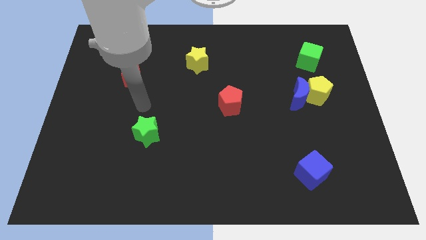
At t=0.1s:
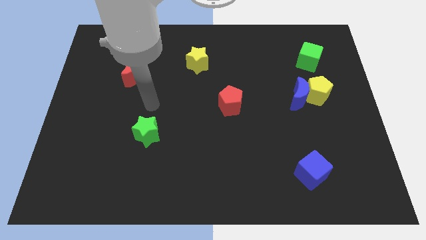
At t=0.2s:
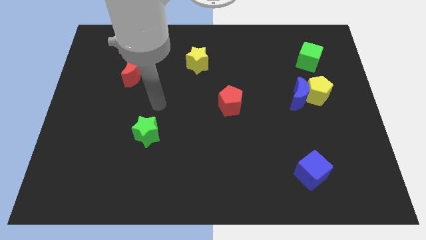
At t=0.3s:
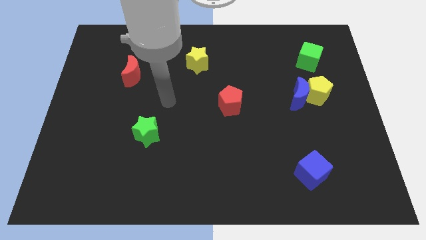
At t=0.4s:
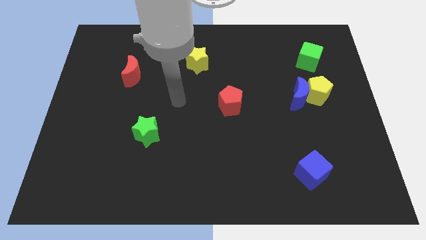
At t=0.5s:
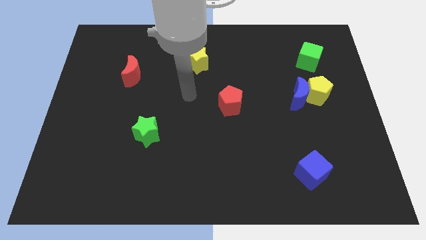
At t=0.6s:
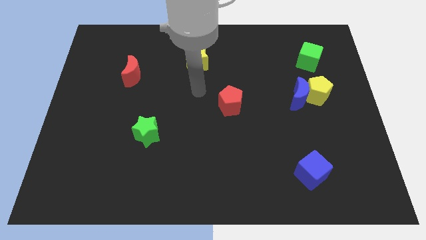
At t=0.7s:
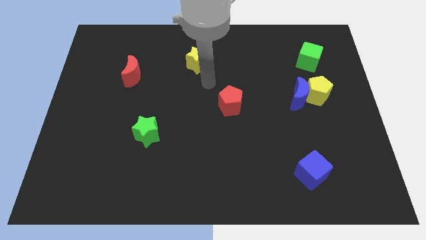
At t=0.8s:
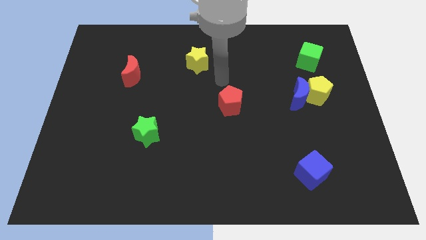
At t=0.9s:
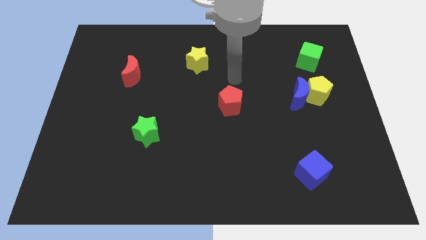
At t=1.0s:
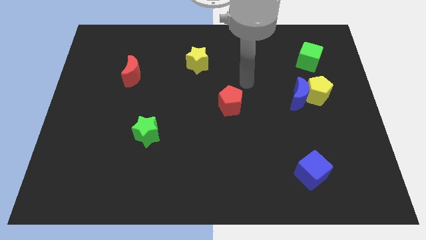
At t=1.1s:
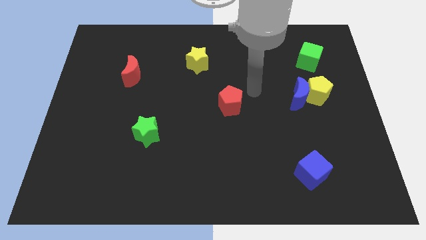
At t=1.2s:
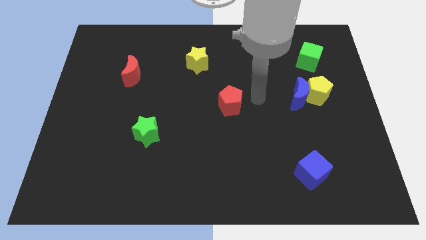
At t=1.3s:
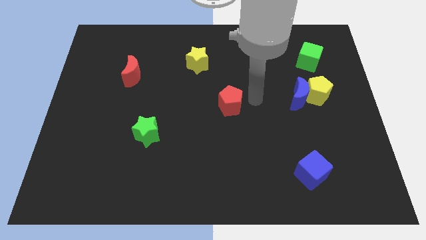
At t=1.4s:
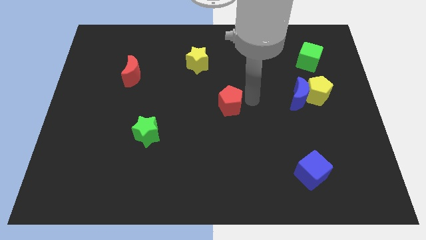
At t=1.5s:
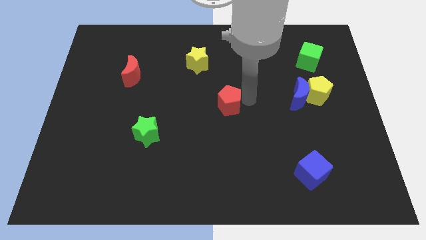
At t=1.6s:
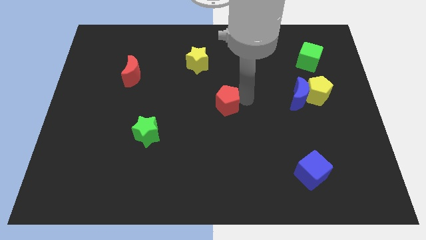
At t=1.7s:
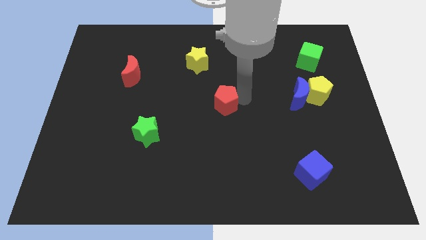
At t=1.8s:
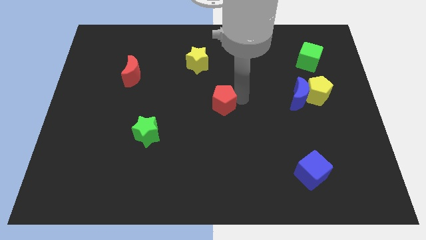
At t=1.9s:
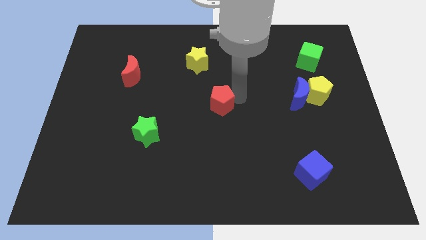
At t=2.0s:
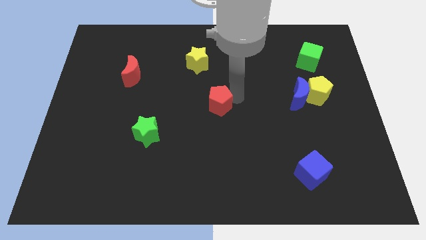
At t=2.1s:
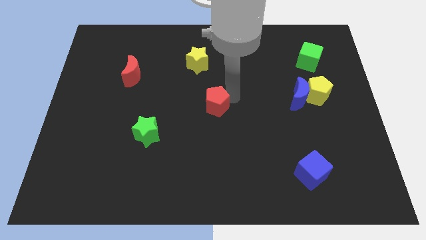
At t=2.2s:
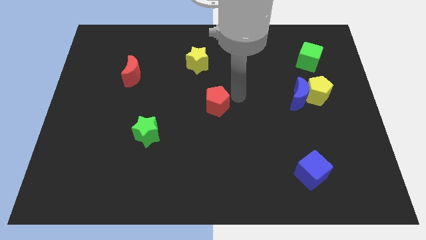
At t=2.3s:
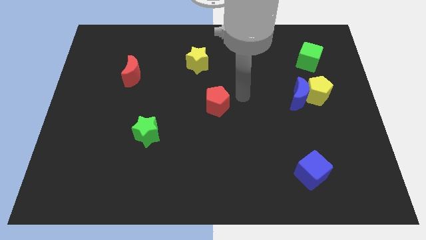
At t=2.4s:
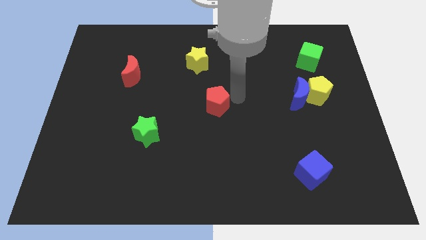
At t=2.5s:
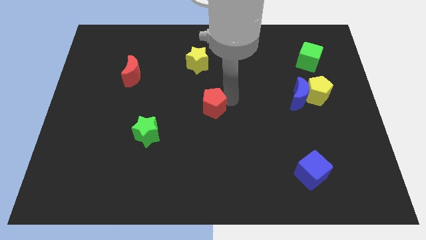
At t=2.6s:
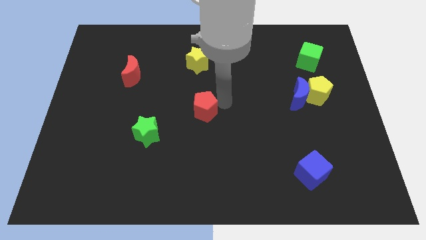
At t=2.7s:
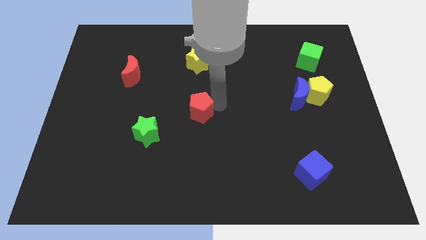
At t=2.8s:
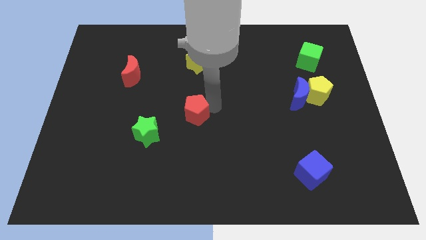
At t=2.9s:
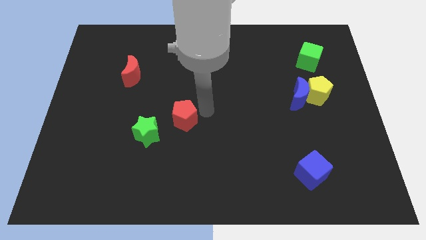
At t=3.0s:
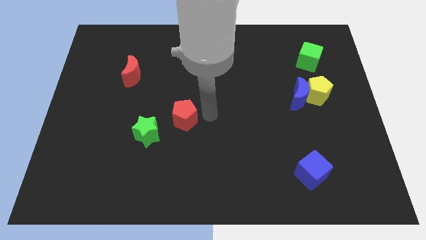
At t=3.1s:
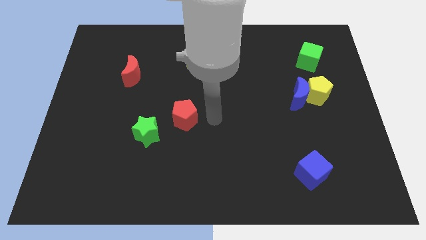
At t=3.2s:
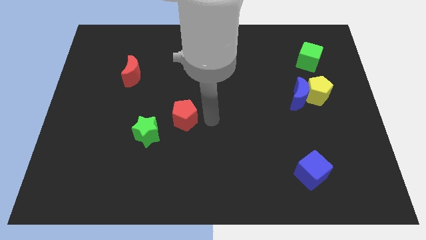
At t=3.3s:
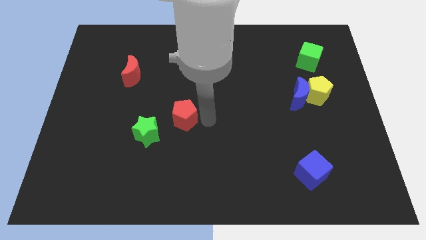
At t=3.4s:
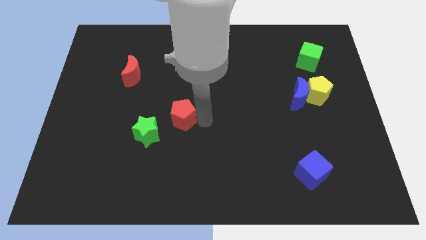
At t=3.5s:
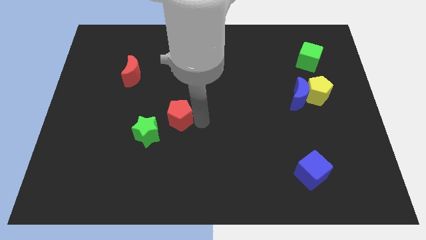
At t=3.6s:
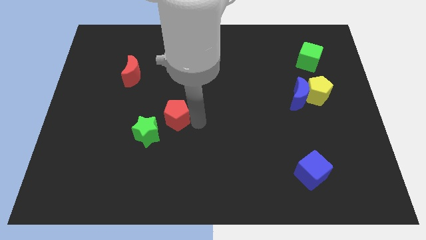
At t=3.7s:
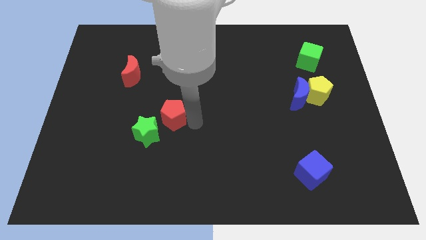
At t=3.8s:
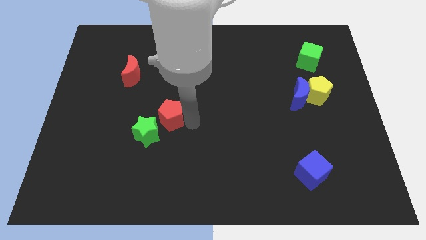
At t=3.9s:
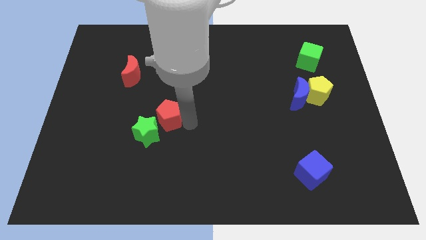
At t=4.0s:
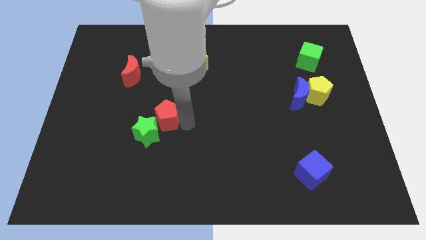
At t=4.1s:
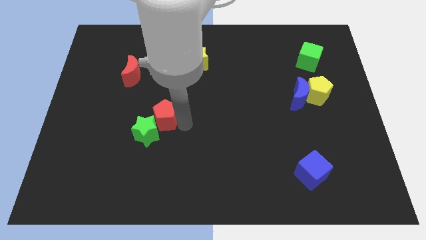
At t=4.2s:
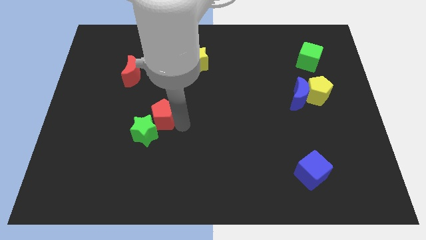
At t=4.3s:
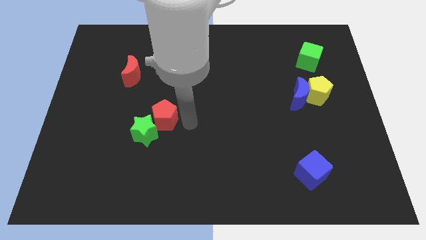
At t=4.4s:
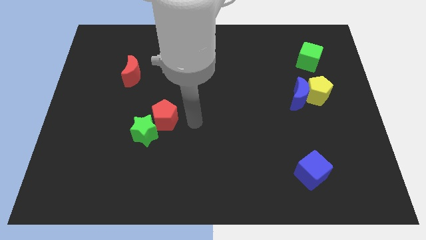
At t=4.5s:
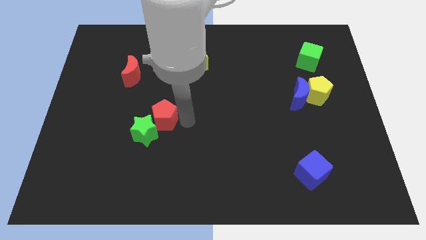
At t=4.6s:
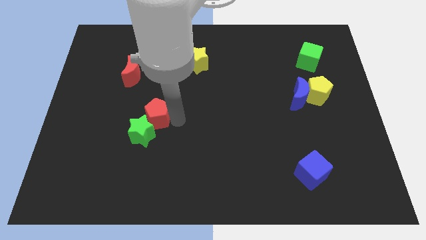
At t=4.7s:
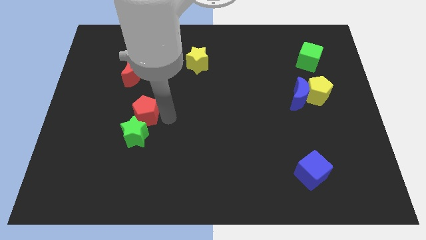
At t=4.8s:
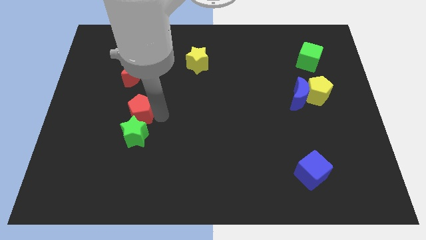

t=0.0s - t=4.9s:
slide the red pentagon to the top left of the green star

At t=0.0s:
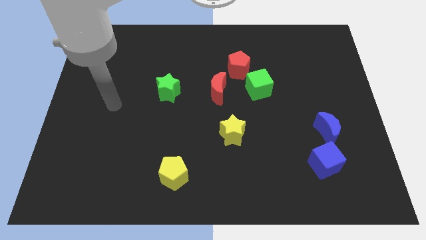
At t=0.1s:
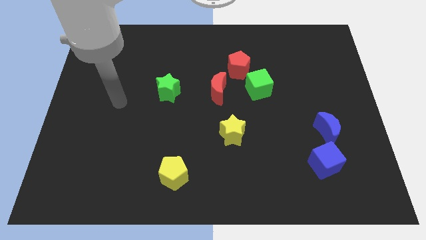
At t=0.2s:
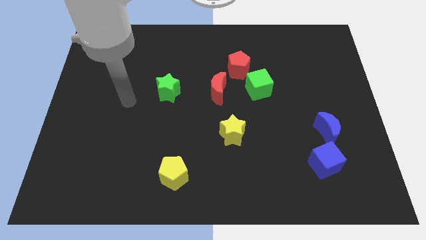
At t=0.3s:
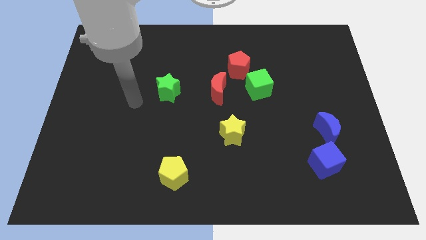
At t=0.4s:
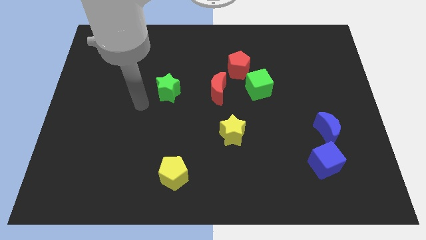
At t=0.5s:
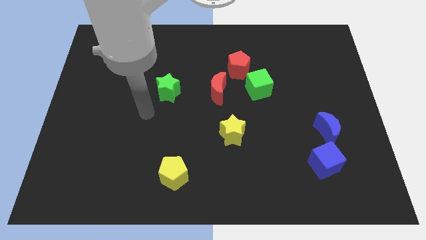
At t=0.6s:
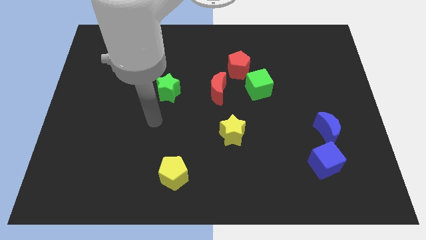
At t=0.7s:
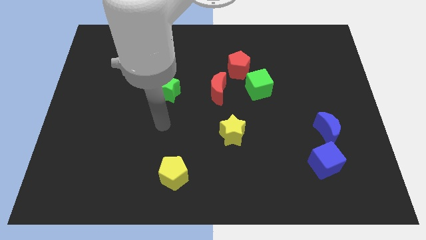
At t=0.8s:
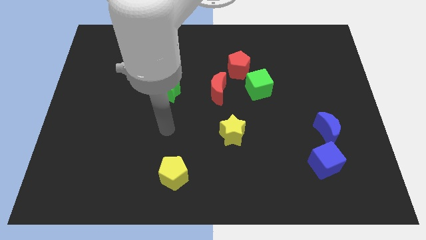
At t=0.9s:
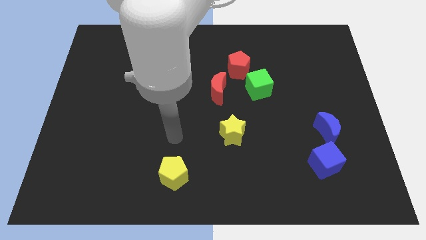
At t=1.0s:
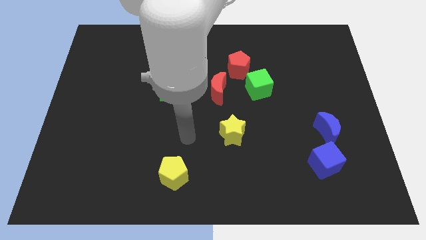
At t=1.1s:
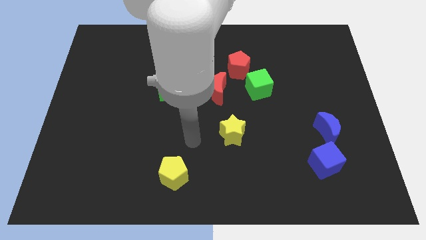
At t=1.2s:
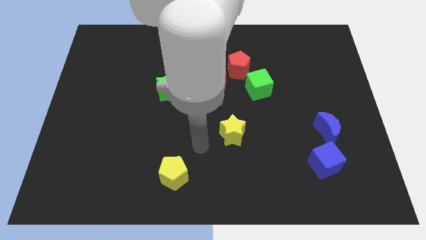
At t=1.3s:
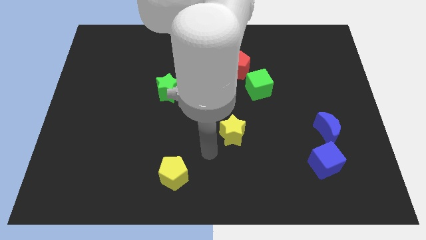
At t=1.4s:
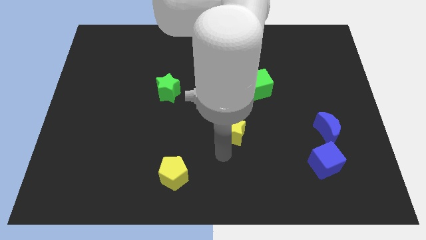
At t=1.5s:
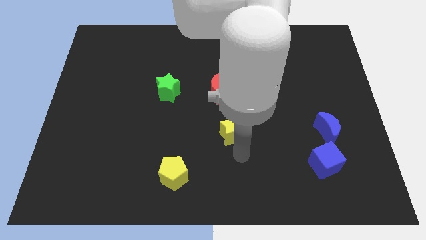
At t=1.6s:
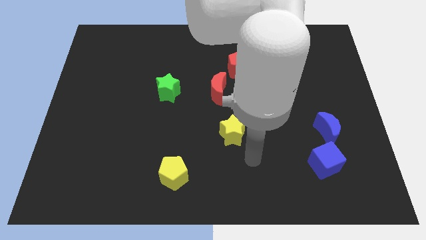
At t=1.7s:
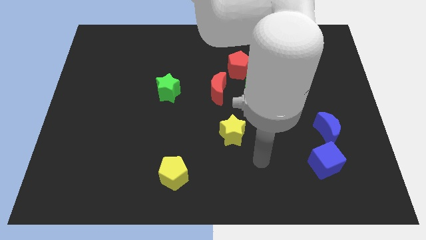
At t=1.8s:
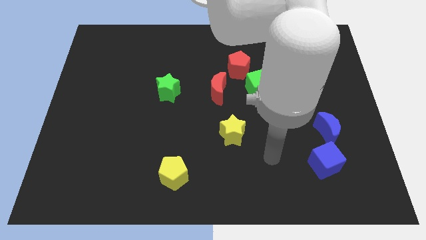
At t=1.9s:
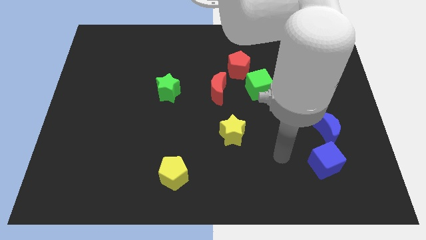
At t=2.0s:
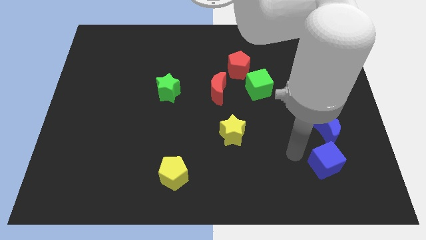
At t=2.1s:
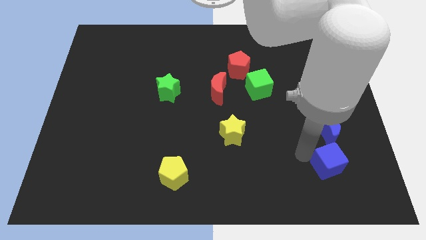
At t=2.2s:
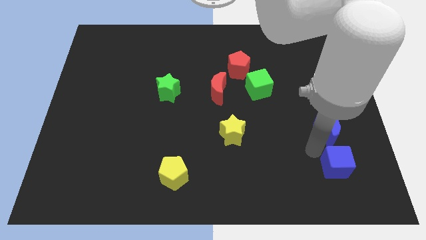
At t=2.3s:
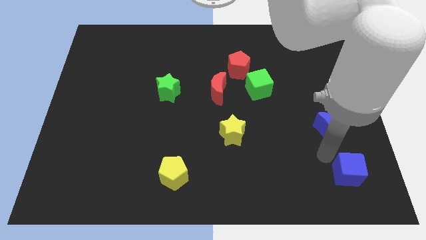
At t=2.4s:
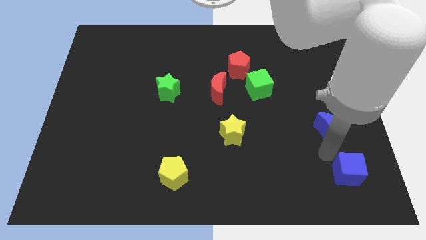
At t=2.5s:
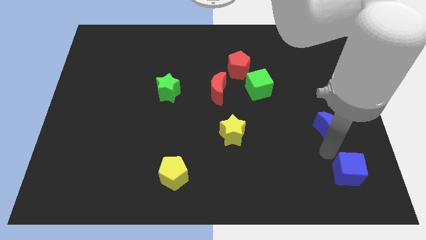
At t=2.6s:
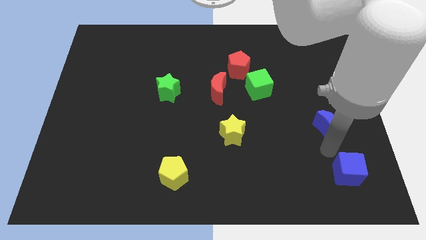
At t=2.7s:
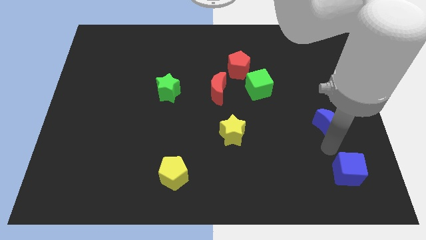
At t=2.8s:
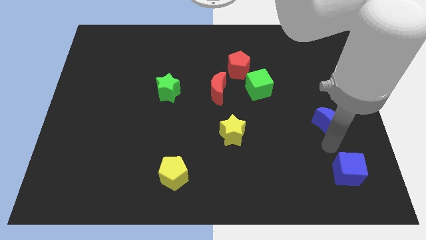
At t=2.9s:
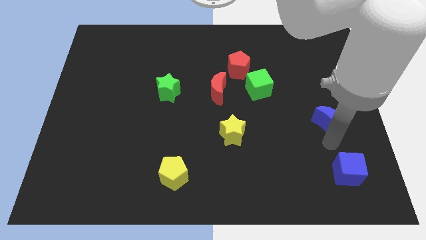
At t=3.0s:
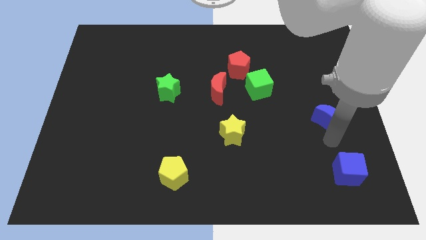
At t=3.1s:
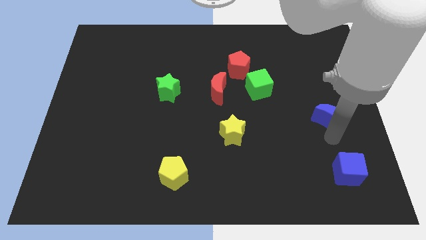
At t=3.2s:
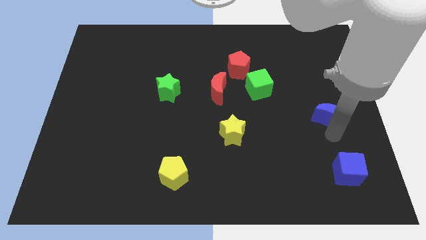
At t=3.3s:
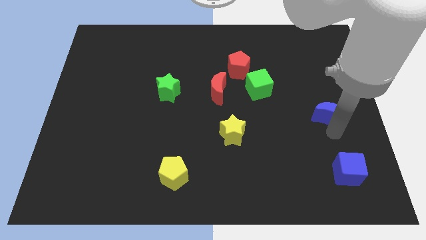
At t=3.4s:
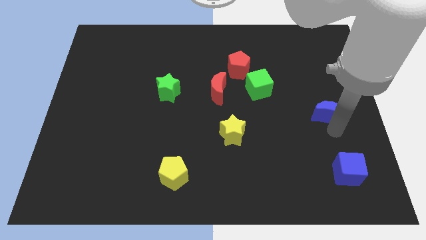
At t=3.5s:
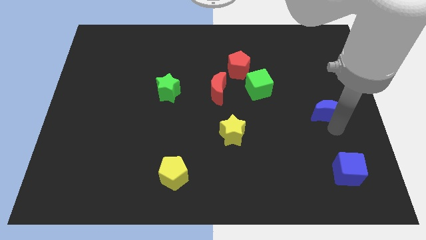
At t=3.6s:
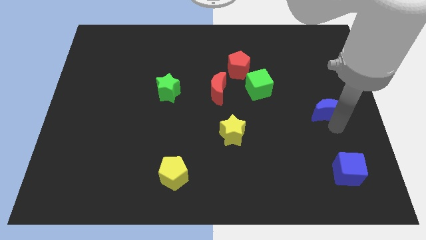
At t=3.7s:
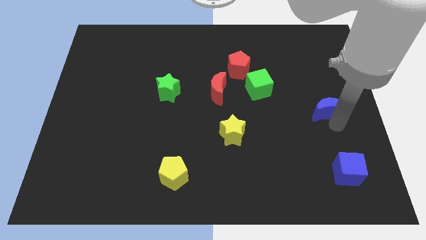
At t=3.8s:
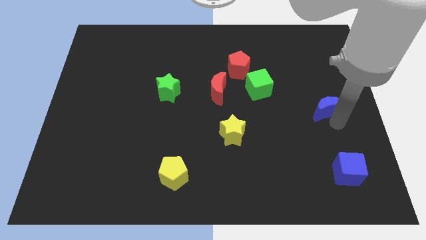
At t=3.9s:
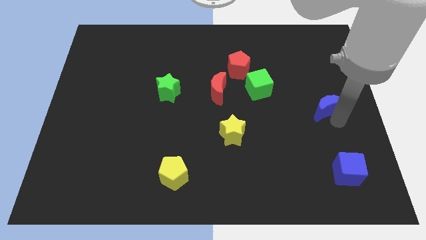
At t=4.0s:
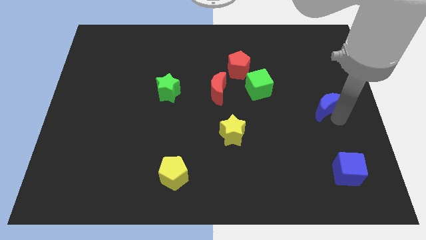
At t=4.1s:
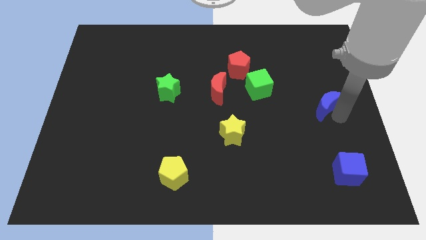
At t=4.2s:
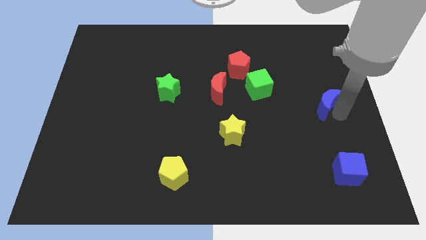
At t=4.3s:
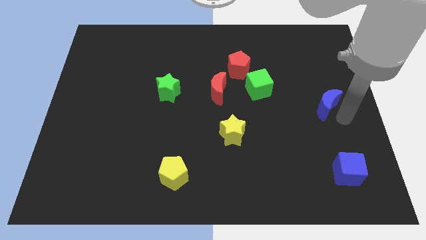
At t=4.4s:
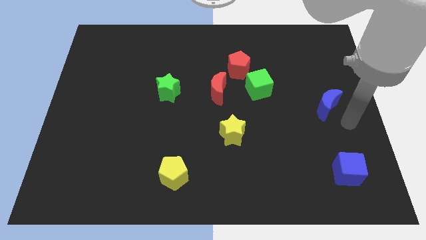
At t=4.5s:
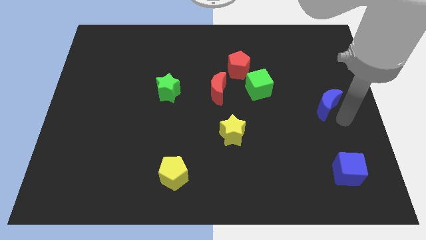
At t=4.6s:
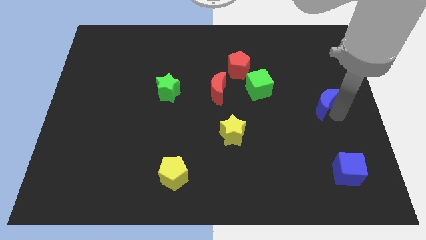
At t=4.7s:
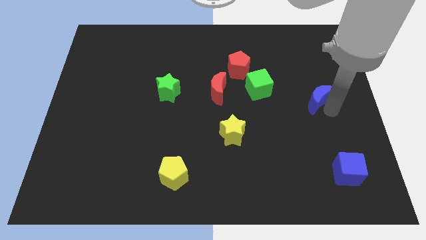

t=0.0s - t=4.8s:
move the blue moon just right of the green cube
